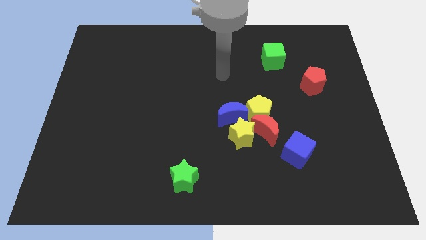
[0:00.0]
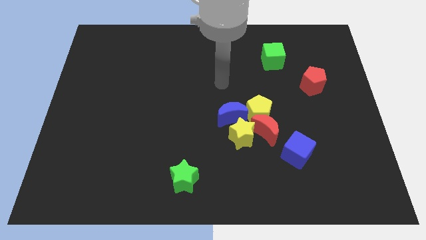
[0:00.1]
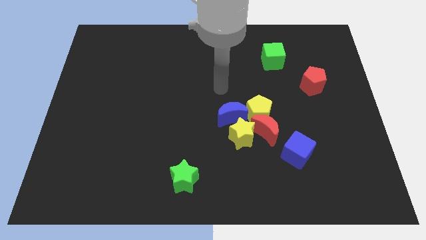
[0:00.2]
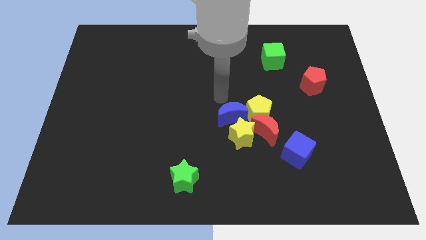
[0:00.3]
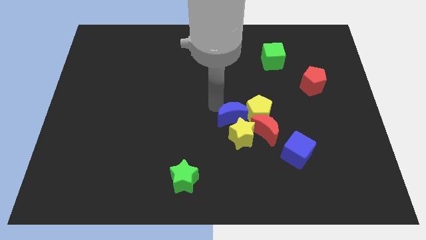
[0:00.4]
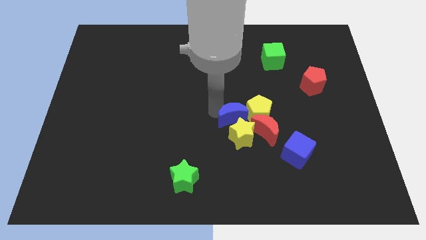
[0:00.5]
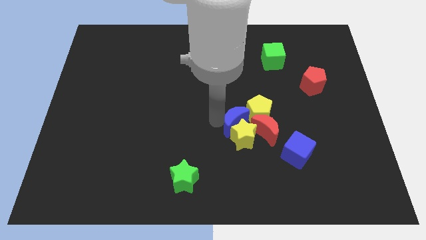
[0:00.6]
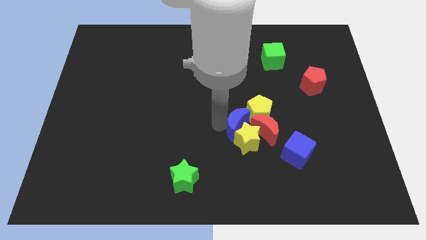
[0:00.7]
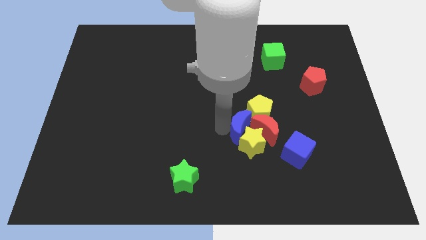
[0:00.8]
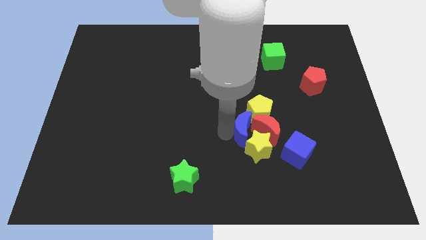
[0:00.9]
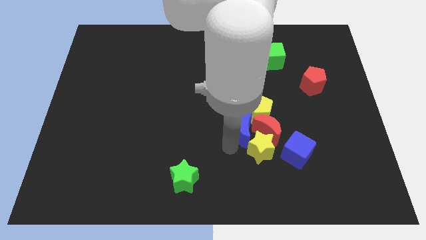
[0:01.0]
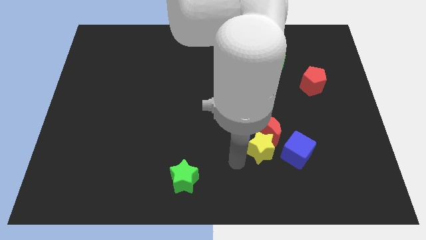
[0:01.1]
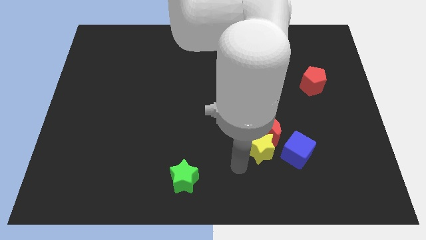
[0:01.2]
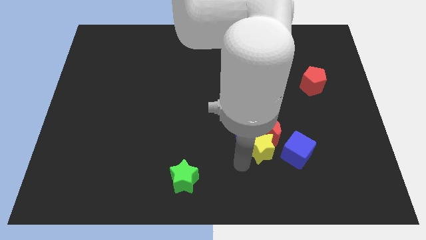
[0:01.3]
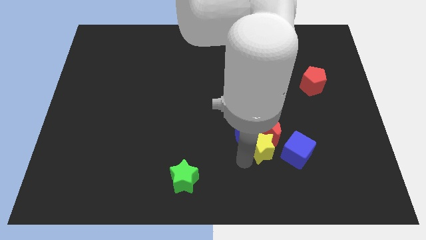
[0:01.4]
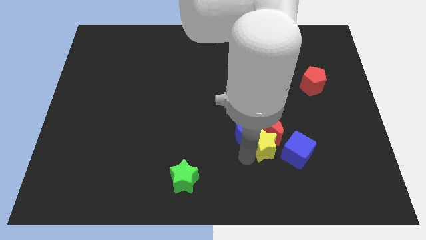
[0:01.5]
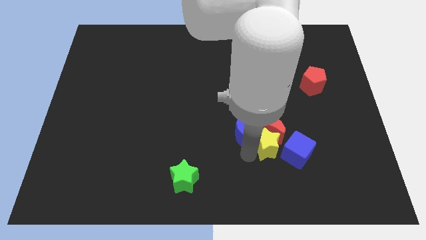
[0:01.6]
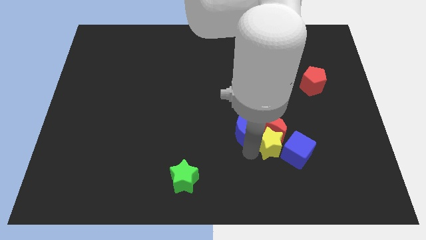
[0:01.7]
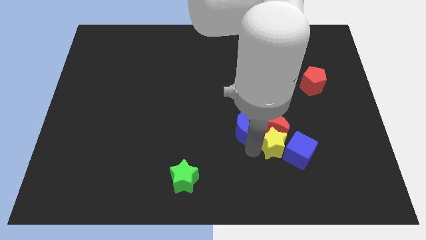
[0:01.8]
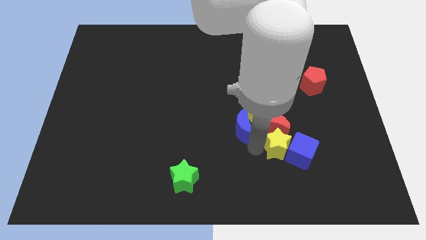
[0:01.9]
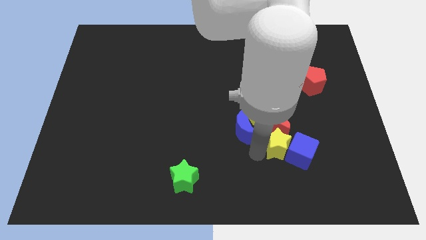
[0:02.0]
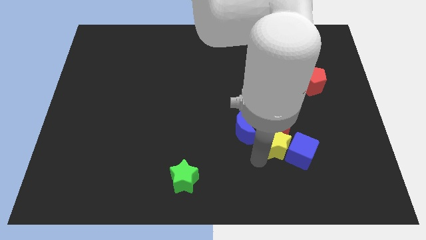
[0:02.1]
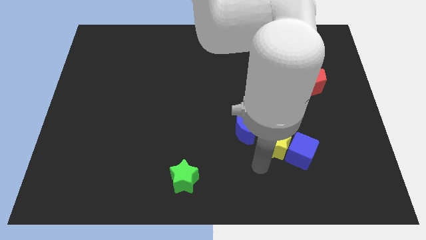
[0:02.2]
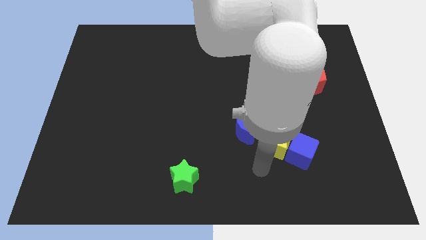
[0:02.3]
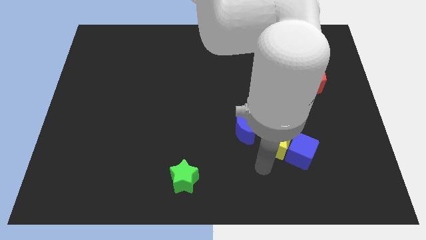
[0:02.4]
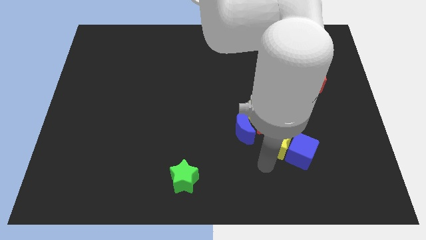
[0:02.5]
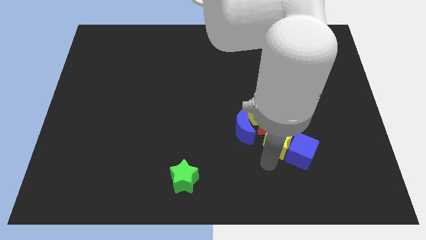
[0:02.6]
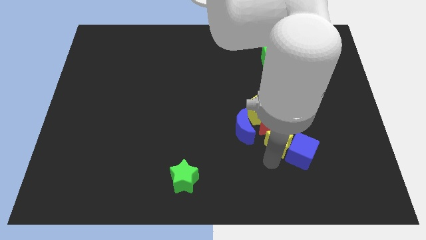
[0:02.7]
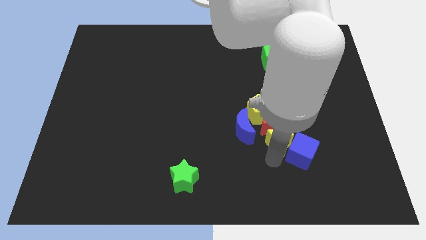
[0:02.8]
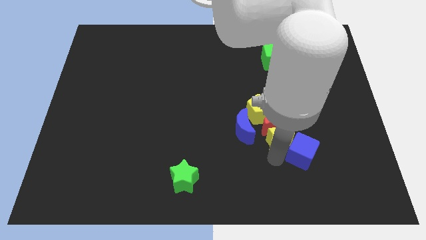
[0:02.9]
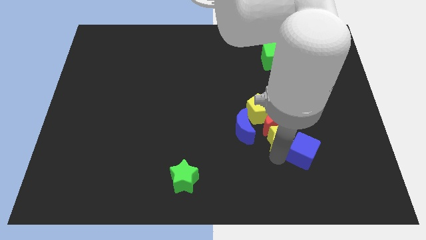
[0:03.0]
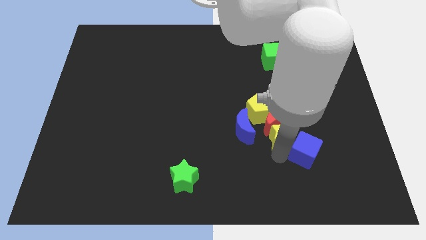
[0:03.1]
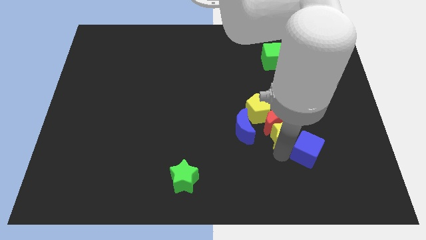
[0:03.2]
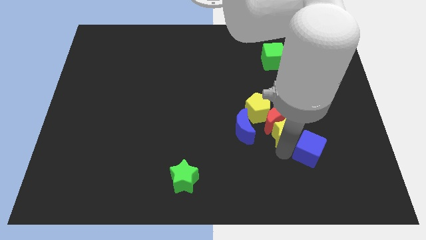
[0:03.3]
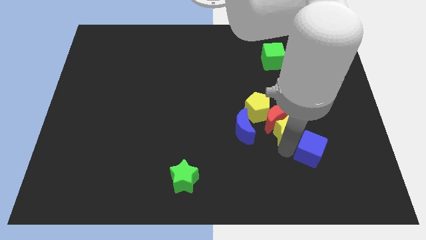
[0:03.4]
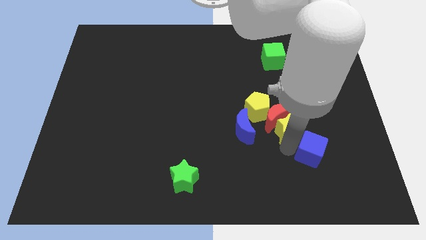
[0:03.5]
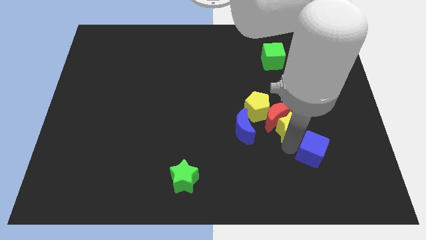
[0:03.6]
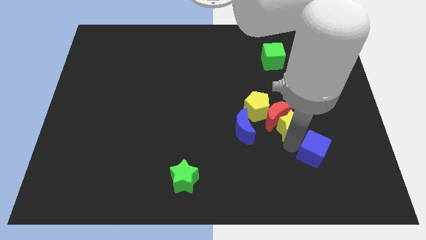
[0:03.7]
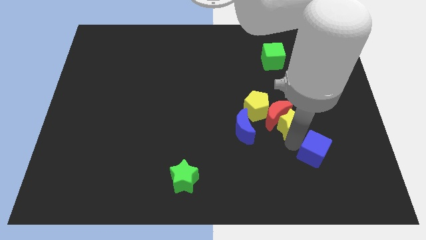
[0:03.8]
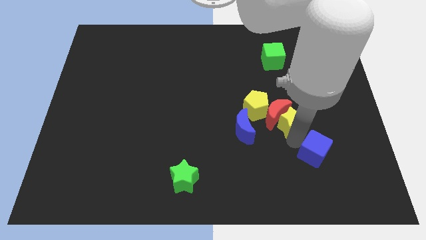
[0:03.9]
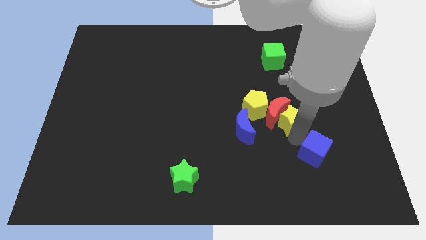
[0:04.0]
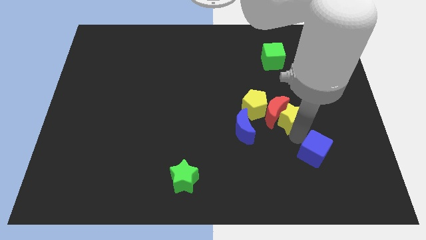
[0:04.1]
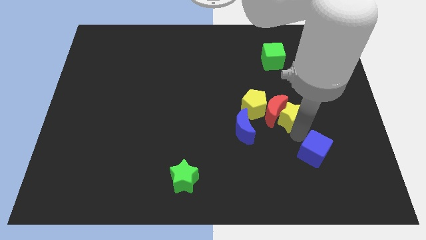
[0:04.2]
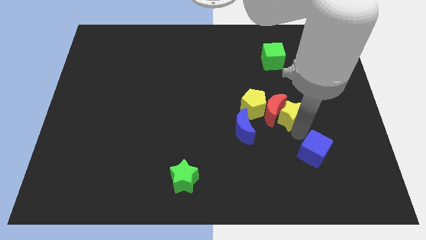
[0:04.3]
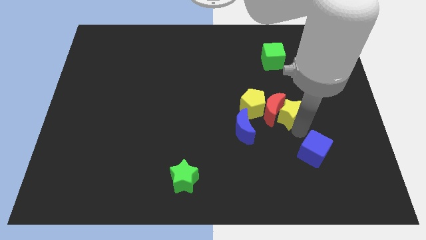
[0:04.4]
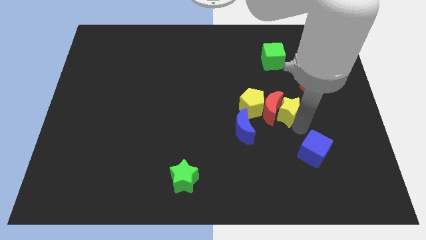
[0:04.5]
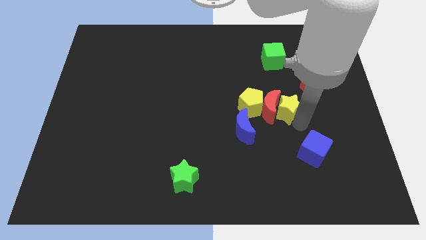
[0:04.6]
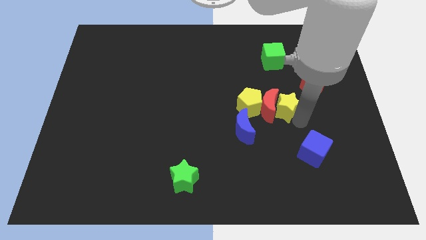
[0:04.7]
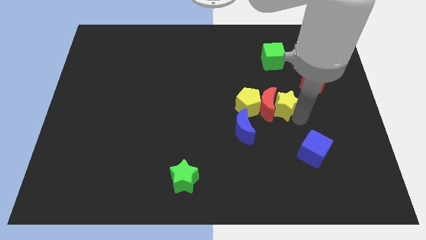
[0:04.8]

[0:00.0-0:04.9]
push the yellow star to the bottom of the green cube

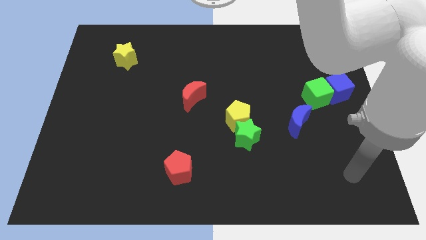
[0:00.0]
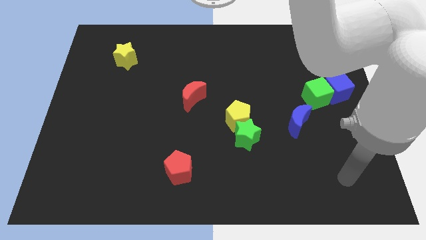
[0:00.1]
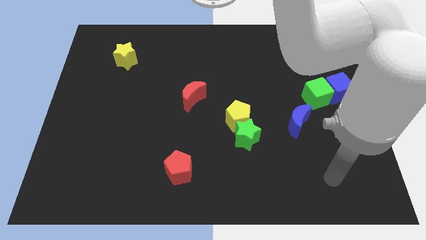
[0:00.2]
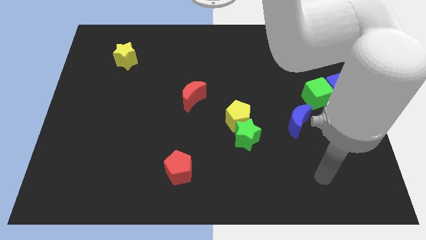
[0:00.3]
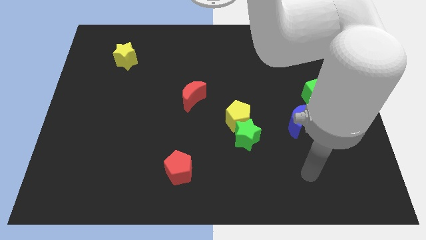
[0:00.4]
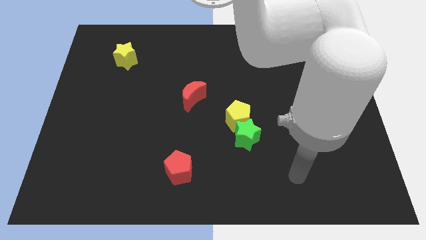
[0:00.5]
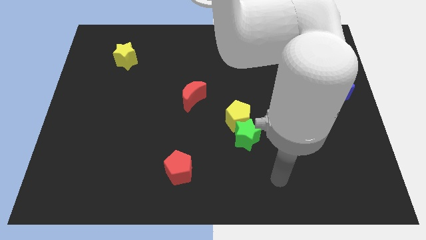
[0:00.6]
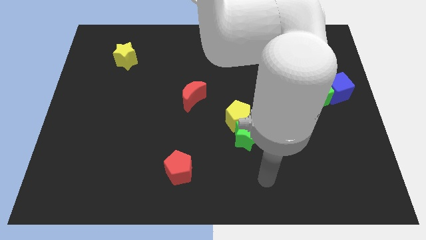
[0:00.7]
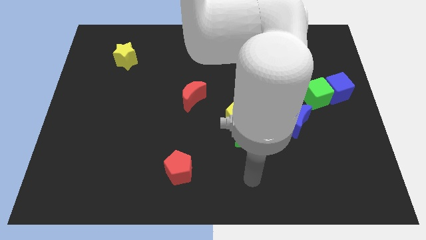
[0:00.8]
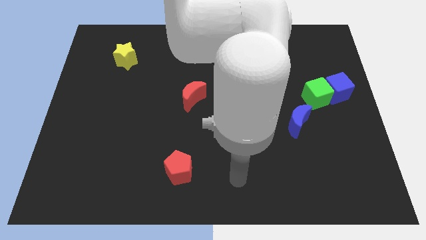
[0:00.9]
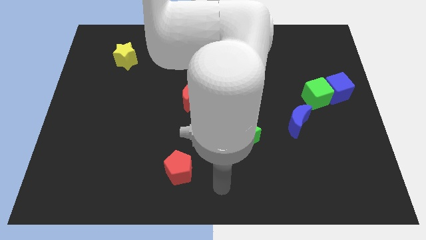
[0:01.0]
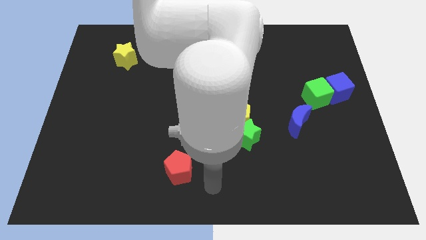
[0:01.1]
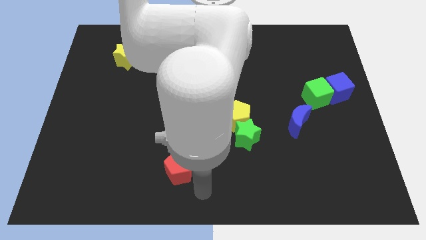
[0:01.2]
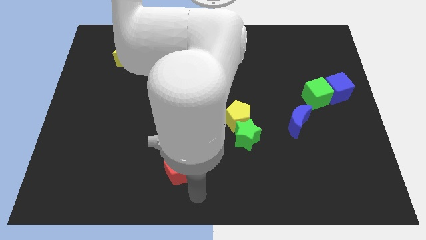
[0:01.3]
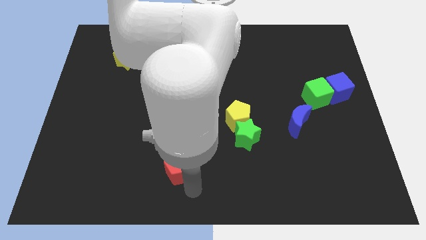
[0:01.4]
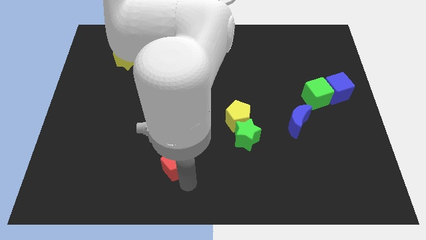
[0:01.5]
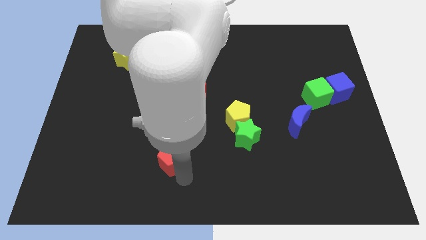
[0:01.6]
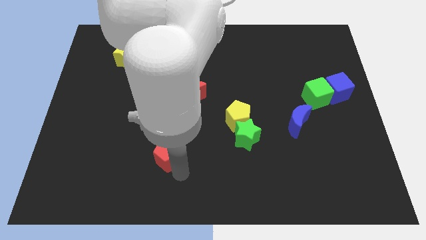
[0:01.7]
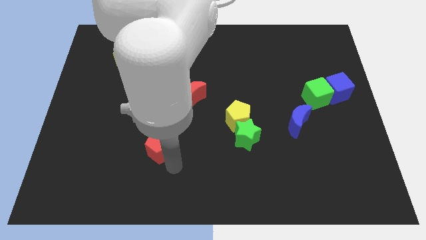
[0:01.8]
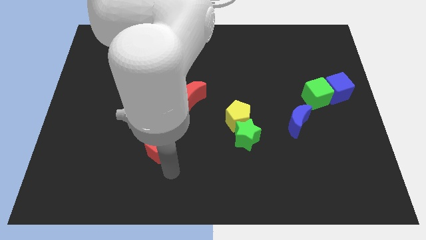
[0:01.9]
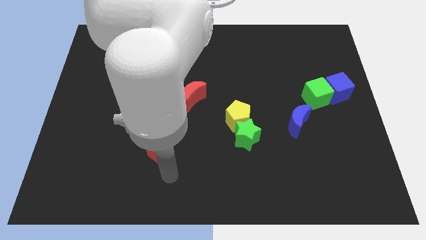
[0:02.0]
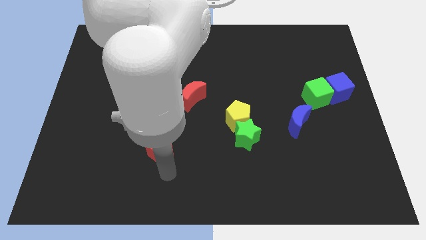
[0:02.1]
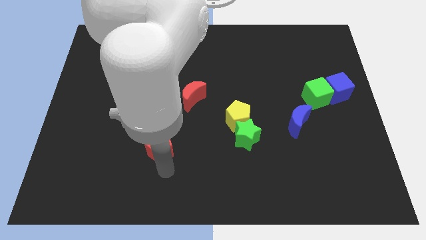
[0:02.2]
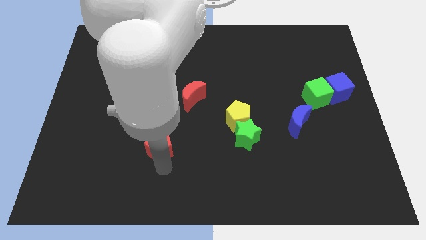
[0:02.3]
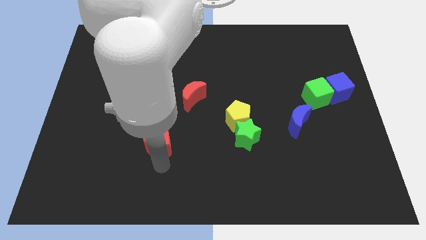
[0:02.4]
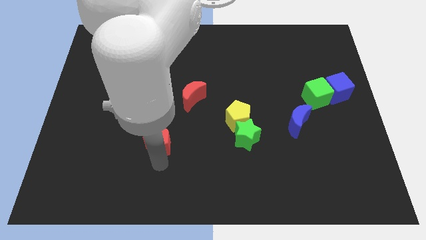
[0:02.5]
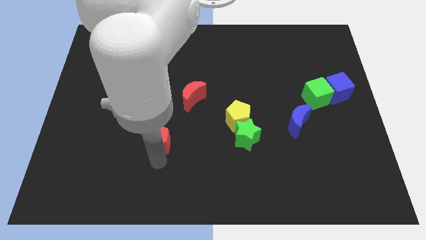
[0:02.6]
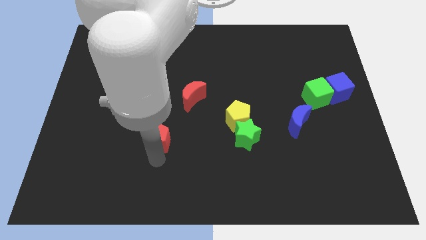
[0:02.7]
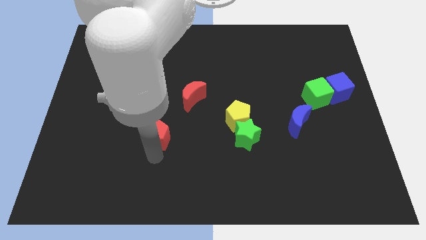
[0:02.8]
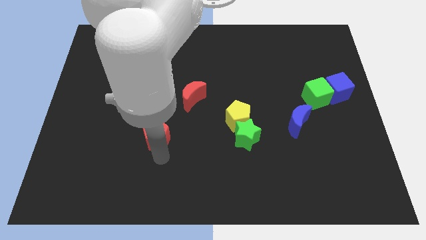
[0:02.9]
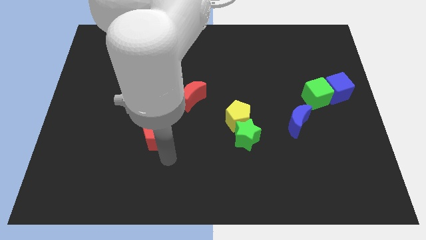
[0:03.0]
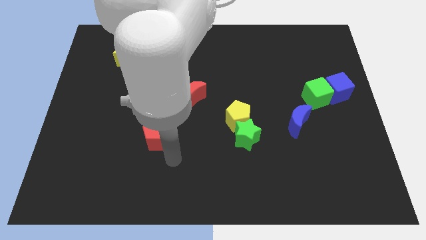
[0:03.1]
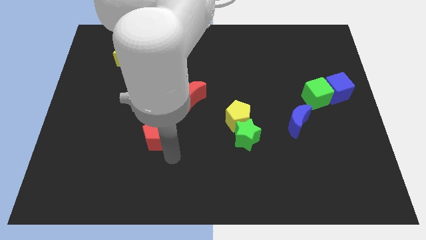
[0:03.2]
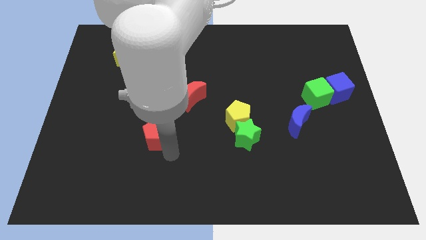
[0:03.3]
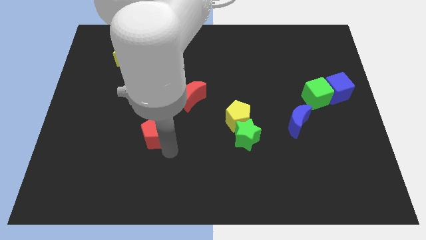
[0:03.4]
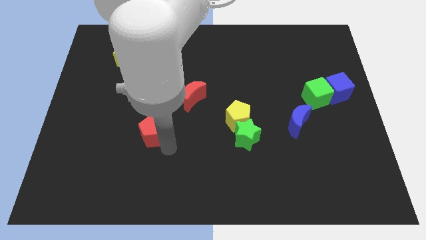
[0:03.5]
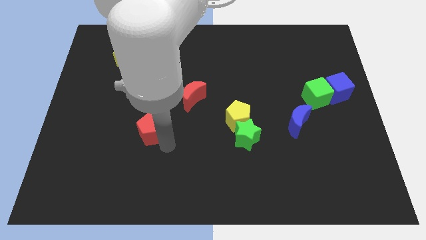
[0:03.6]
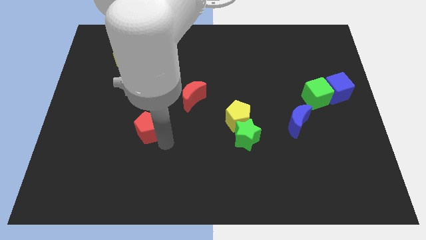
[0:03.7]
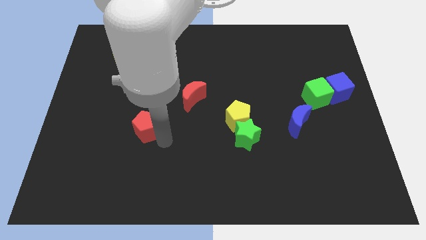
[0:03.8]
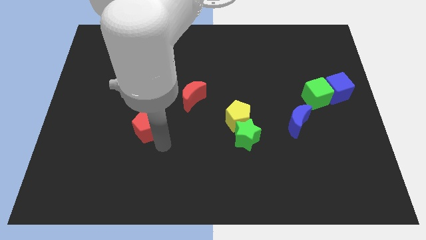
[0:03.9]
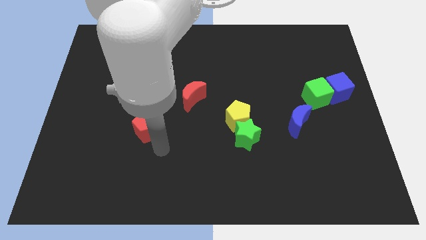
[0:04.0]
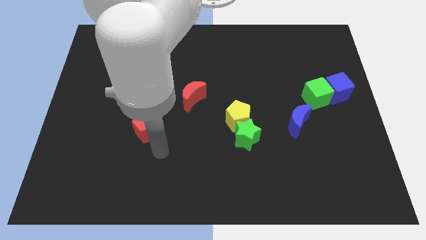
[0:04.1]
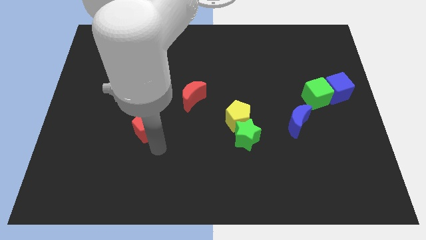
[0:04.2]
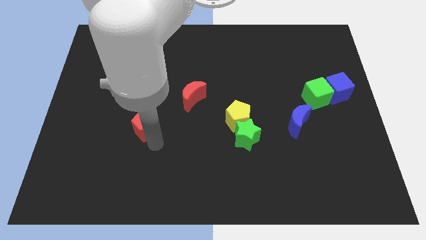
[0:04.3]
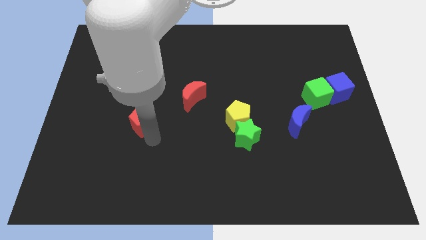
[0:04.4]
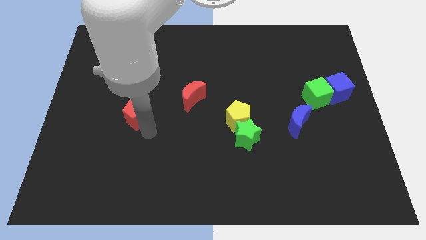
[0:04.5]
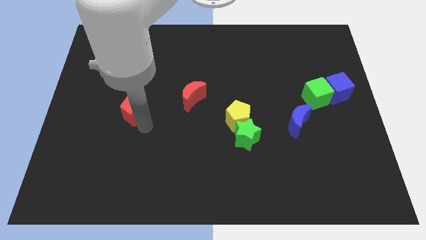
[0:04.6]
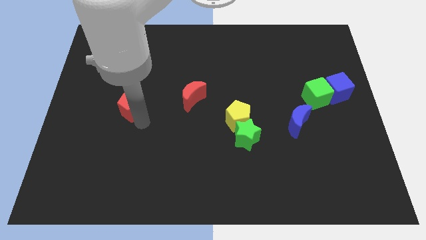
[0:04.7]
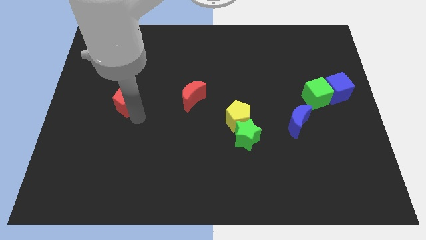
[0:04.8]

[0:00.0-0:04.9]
move the red pentagon to the bottom of the yellow star
